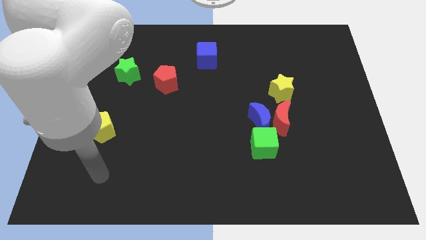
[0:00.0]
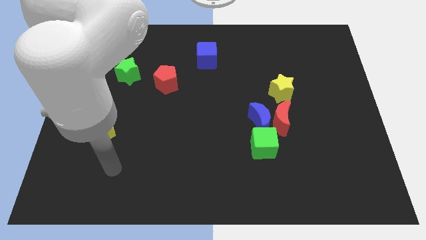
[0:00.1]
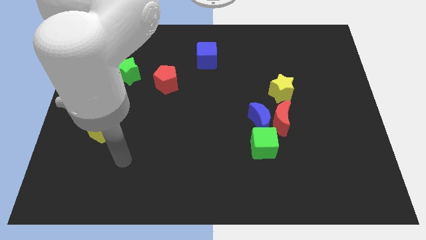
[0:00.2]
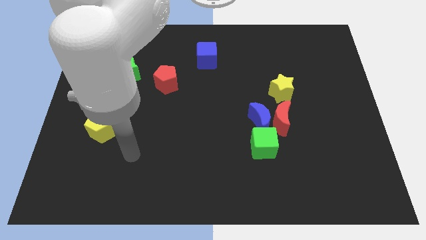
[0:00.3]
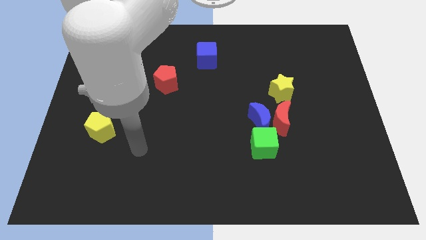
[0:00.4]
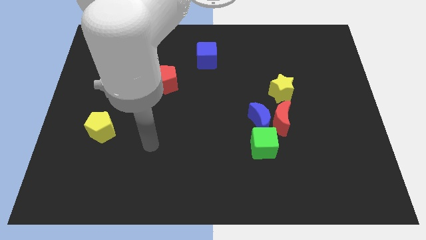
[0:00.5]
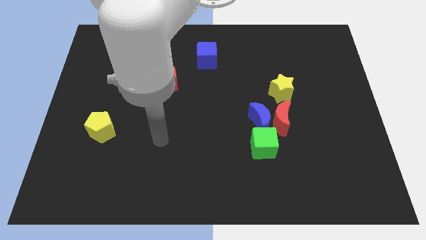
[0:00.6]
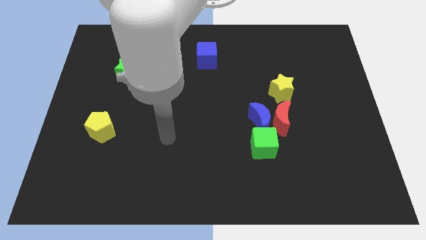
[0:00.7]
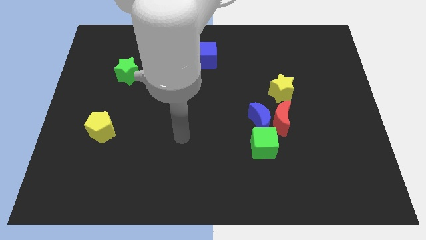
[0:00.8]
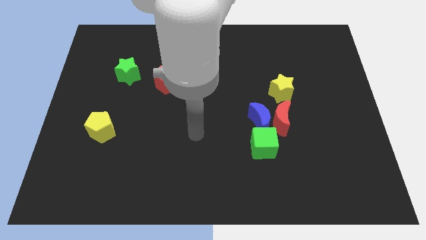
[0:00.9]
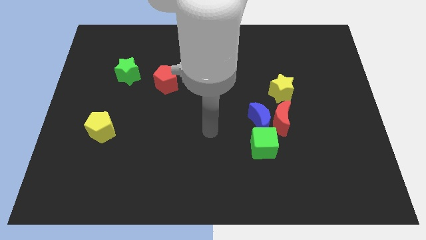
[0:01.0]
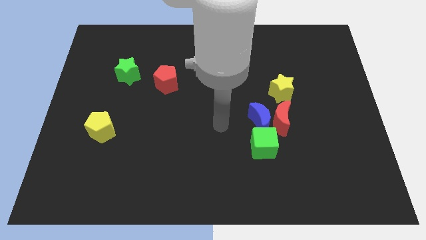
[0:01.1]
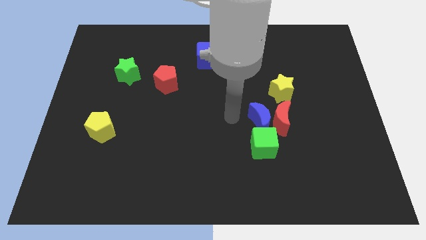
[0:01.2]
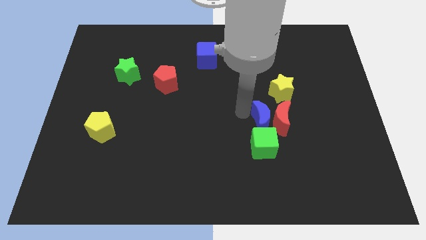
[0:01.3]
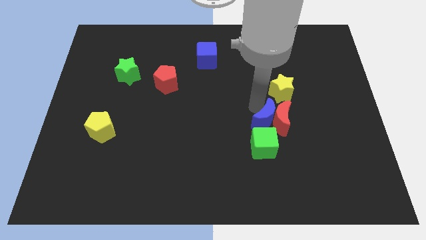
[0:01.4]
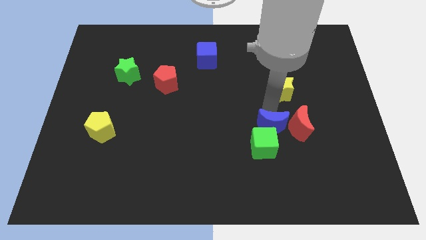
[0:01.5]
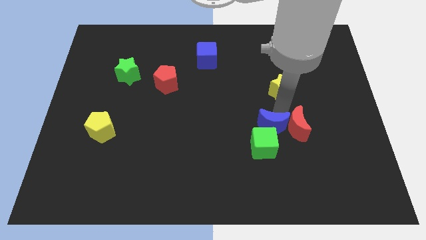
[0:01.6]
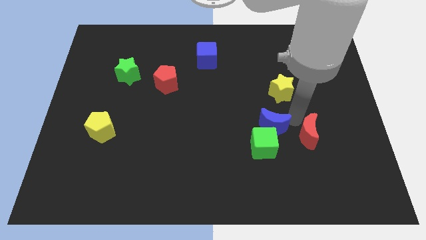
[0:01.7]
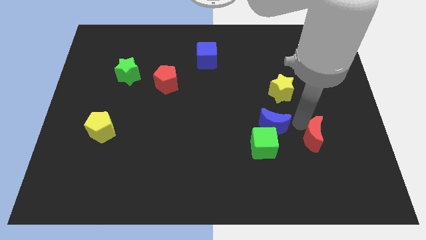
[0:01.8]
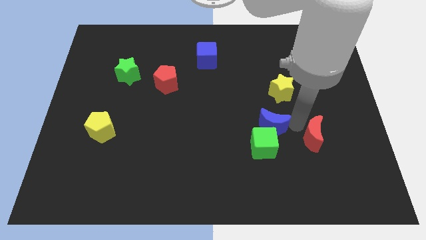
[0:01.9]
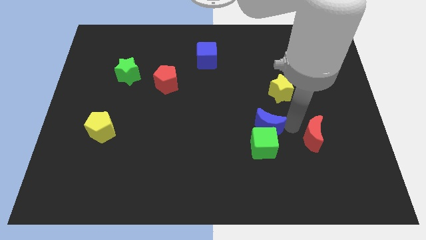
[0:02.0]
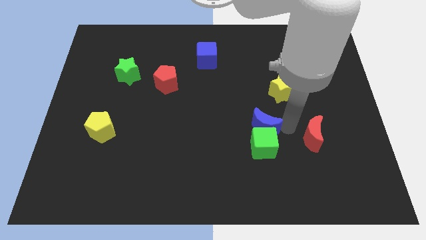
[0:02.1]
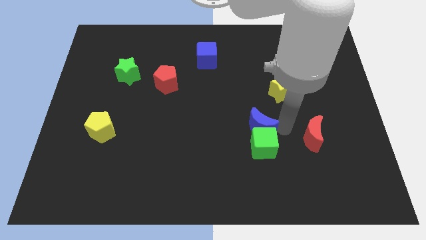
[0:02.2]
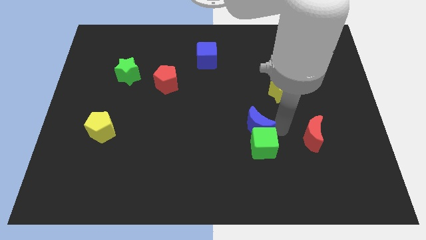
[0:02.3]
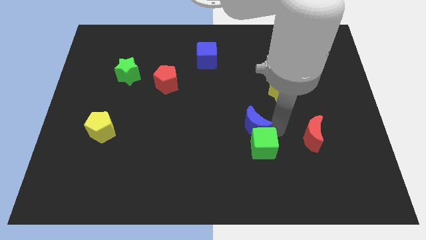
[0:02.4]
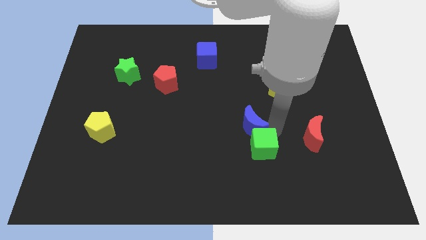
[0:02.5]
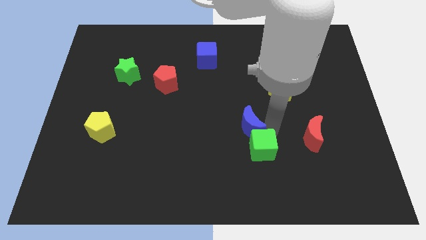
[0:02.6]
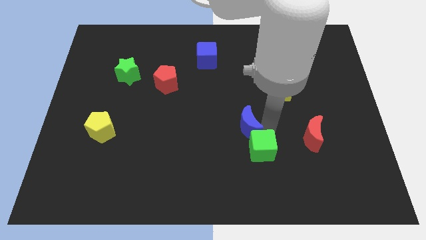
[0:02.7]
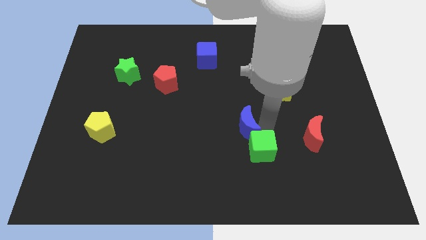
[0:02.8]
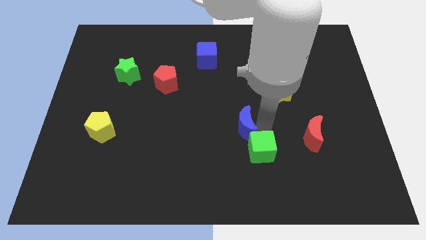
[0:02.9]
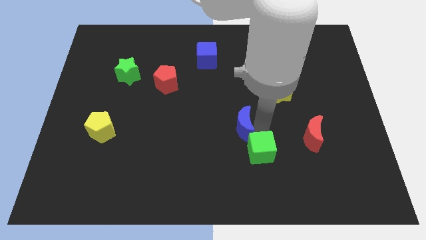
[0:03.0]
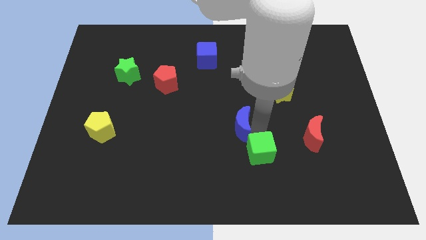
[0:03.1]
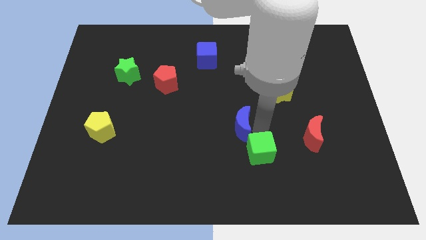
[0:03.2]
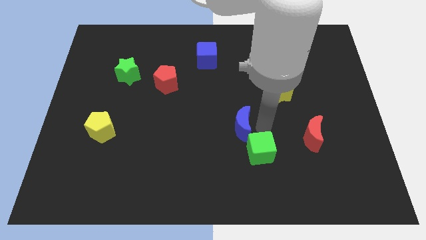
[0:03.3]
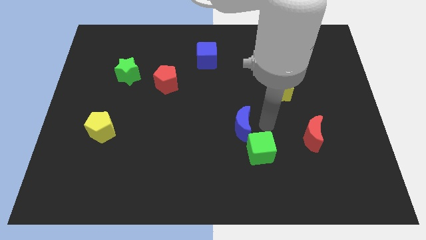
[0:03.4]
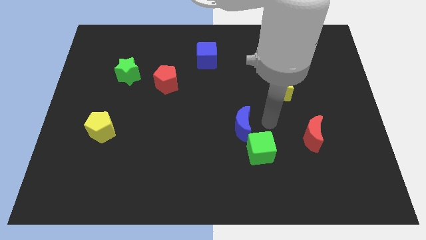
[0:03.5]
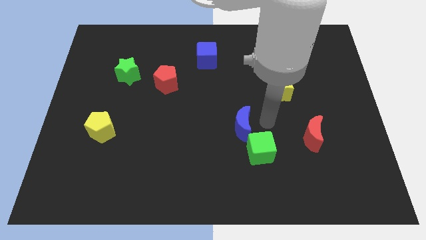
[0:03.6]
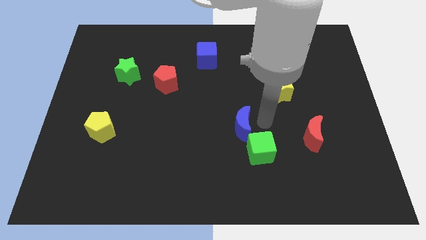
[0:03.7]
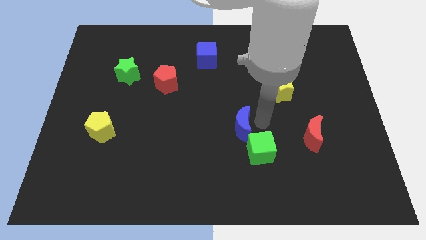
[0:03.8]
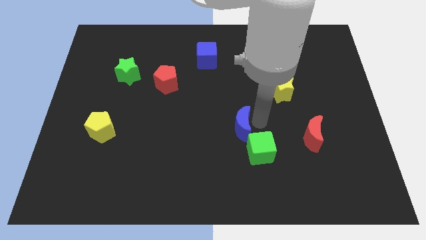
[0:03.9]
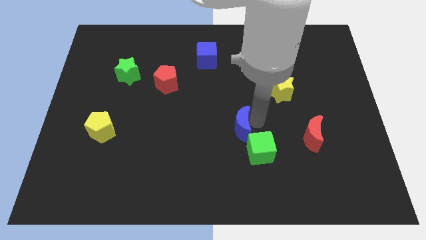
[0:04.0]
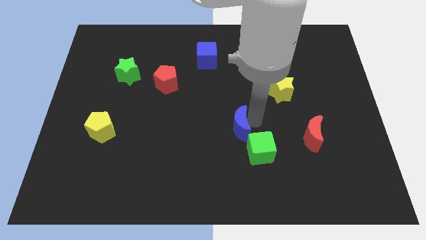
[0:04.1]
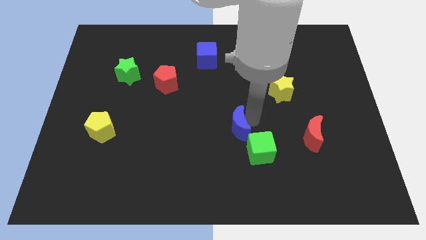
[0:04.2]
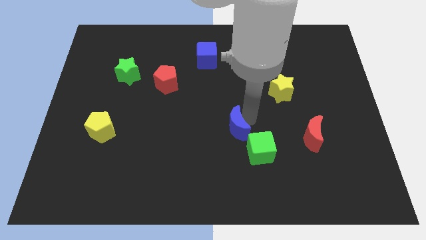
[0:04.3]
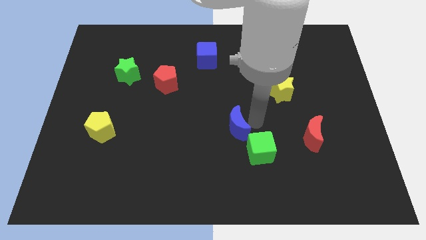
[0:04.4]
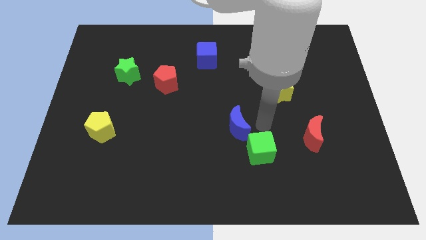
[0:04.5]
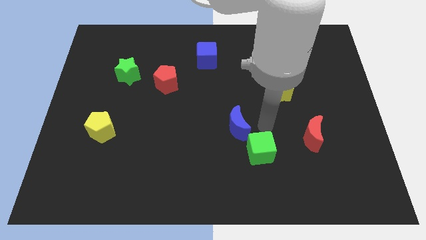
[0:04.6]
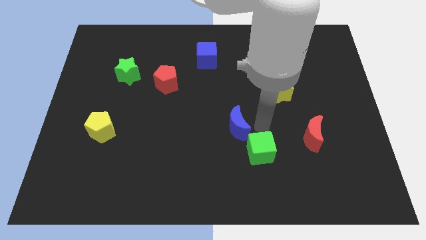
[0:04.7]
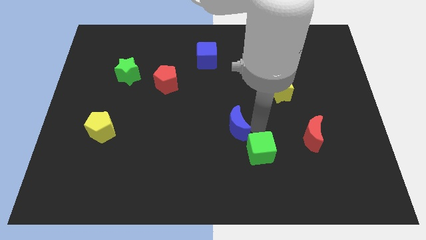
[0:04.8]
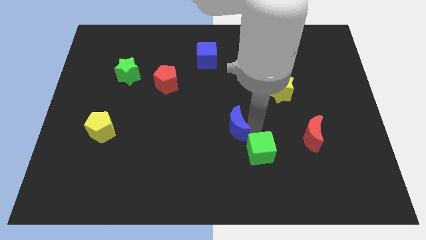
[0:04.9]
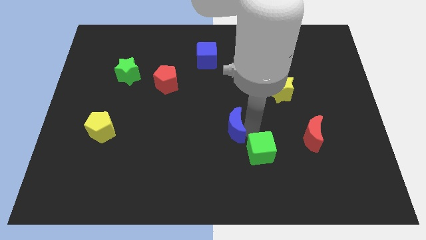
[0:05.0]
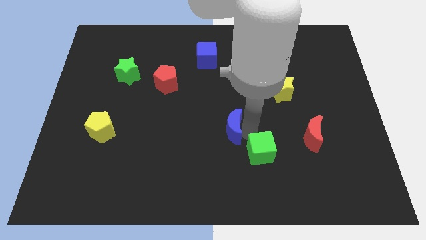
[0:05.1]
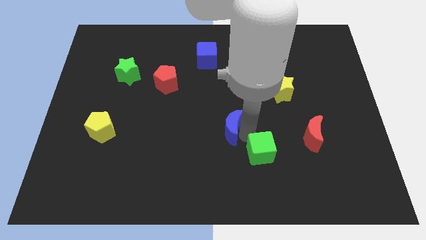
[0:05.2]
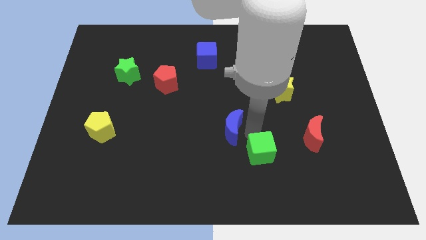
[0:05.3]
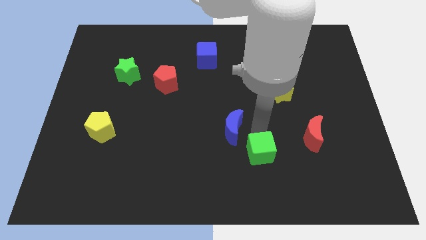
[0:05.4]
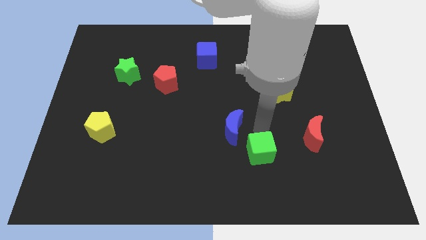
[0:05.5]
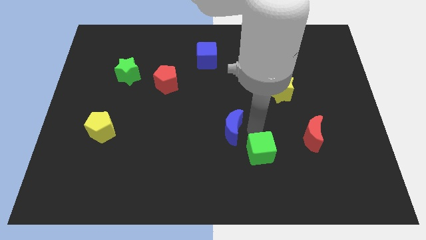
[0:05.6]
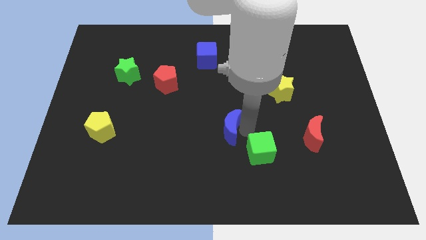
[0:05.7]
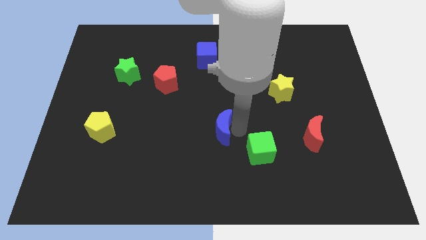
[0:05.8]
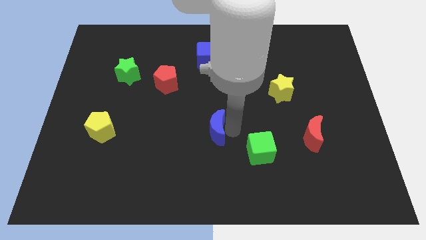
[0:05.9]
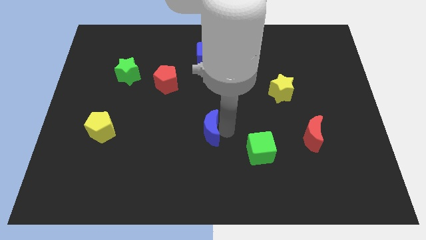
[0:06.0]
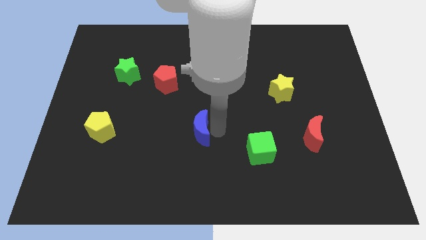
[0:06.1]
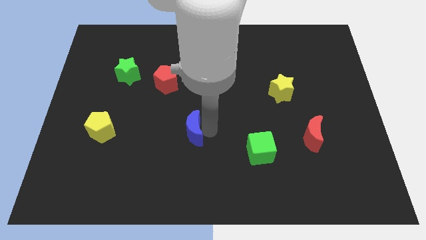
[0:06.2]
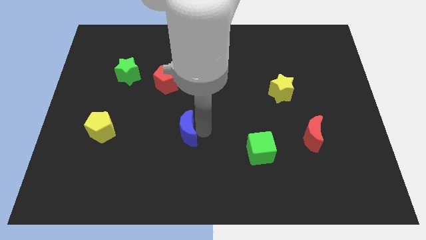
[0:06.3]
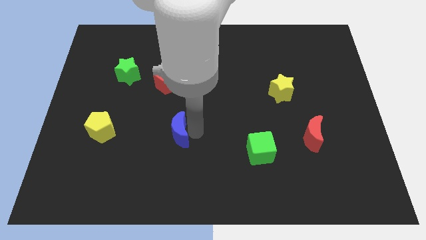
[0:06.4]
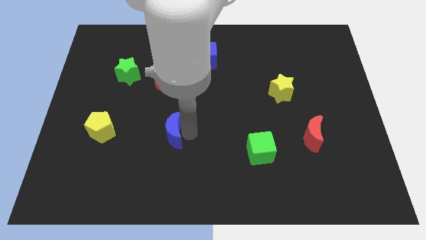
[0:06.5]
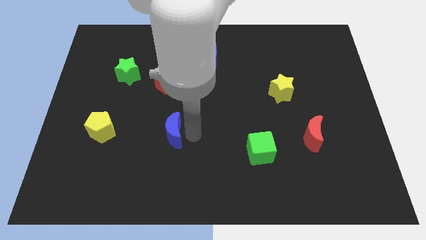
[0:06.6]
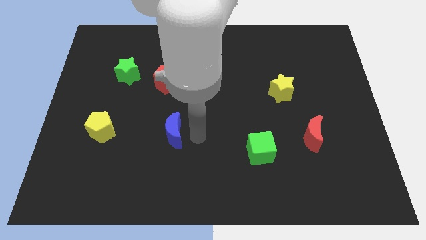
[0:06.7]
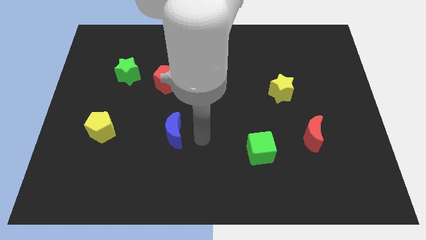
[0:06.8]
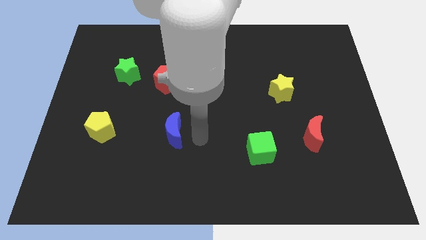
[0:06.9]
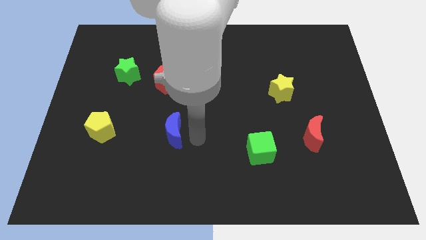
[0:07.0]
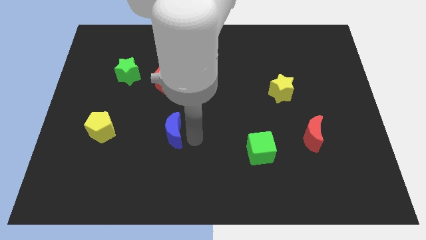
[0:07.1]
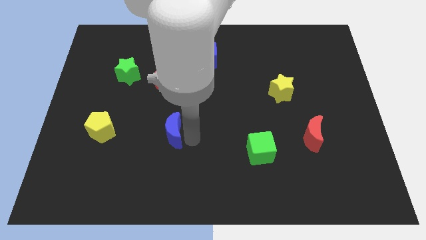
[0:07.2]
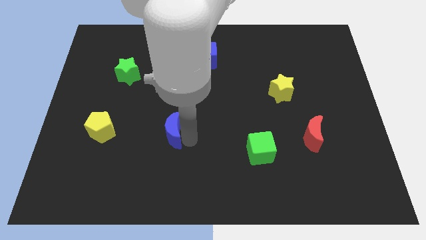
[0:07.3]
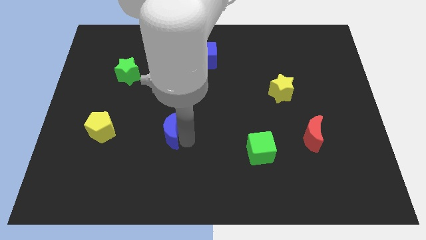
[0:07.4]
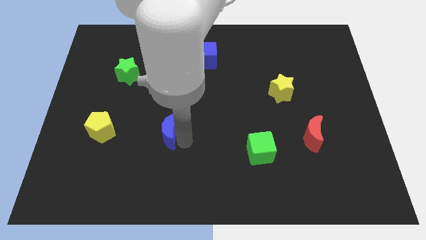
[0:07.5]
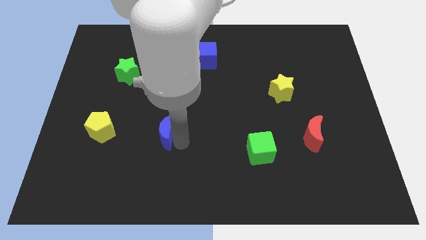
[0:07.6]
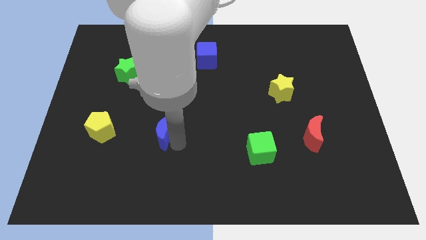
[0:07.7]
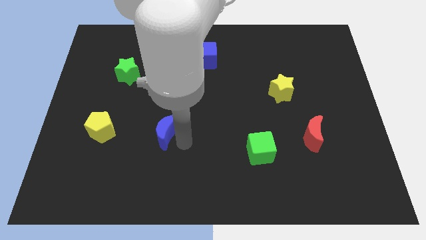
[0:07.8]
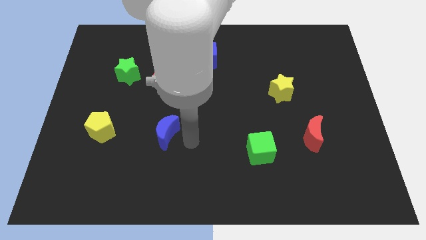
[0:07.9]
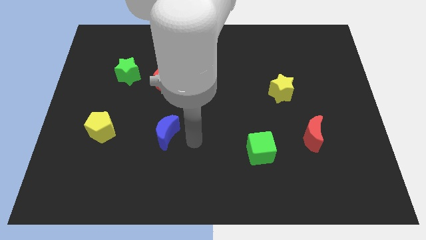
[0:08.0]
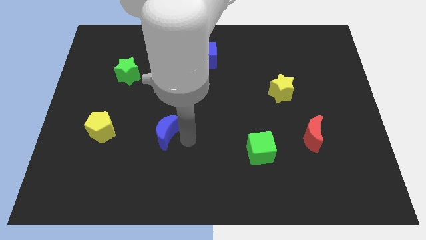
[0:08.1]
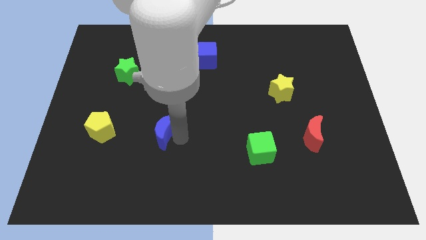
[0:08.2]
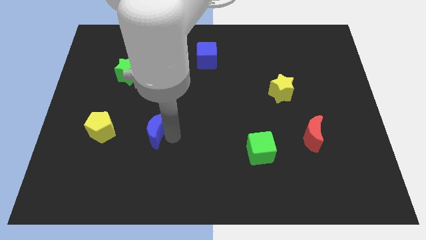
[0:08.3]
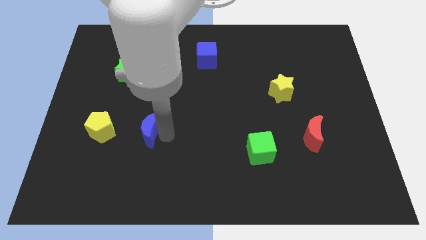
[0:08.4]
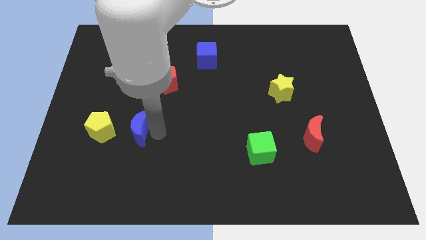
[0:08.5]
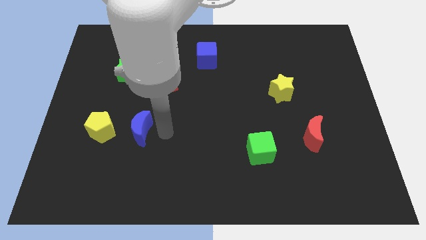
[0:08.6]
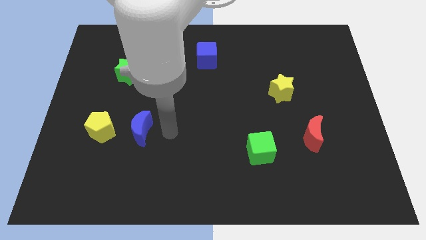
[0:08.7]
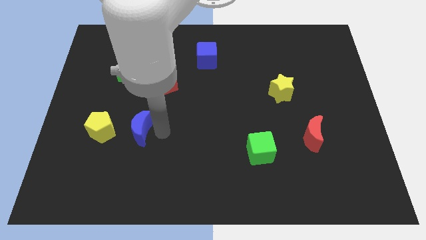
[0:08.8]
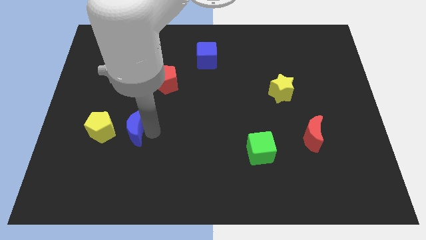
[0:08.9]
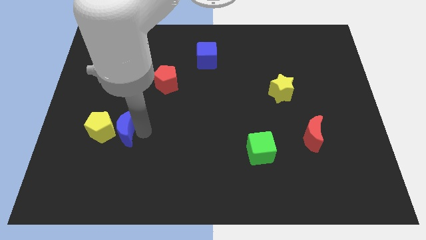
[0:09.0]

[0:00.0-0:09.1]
push the blue moon next to the yellow pentagon
